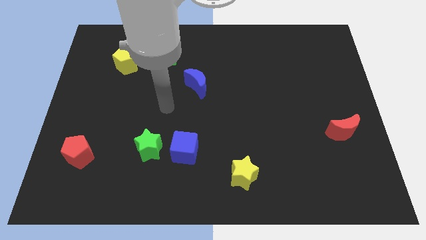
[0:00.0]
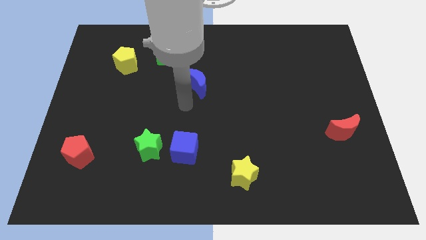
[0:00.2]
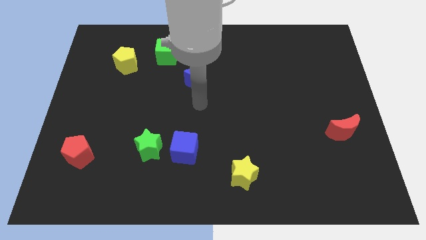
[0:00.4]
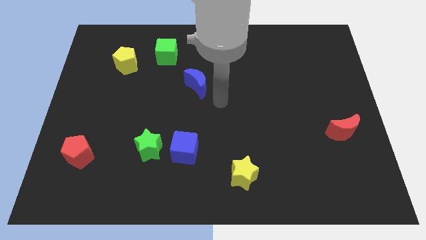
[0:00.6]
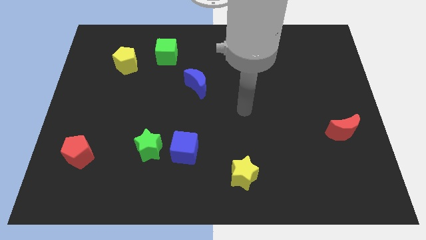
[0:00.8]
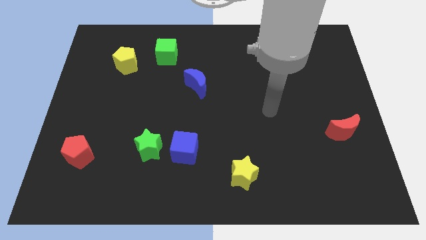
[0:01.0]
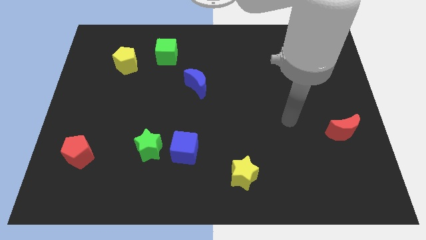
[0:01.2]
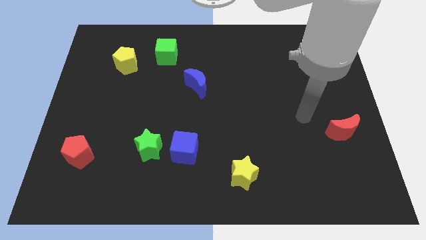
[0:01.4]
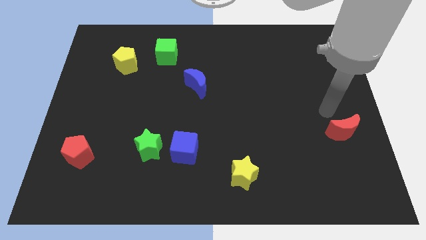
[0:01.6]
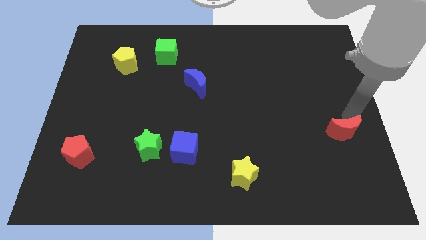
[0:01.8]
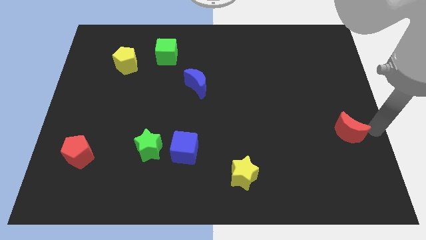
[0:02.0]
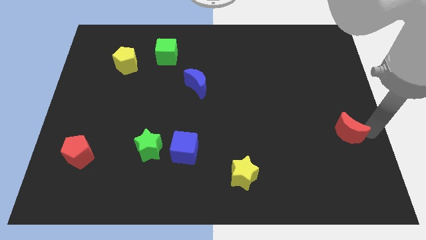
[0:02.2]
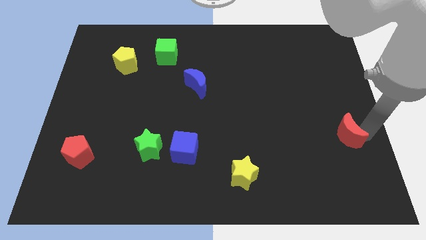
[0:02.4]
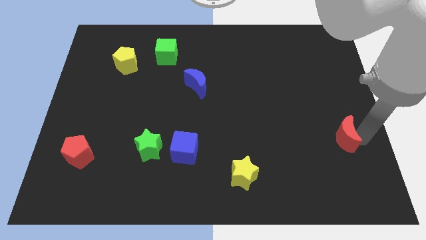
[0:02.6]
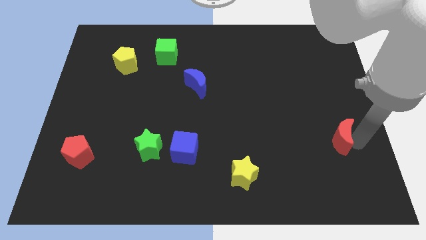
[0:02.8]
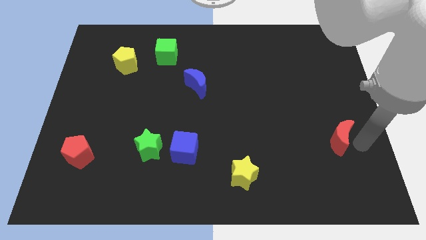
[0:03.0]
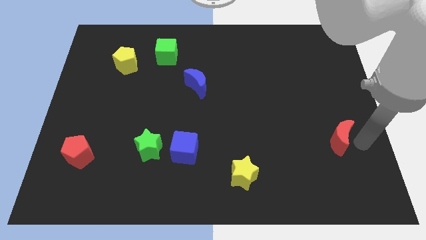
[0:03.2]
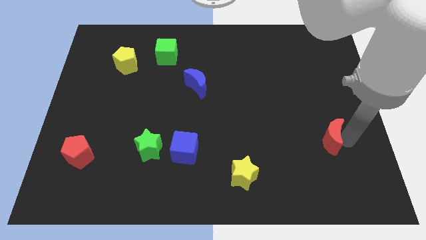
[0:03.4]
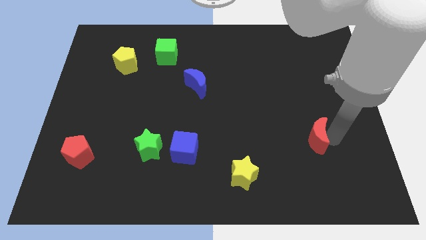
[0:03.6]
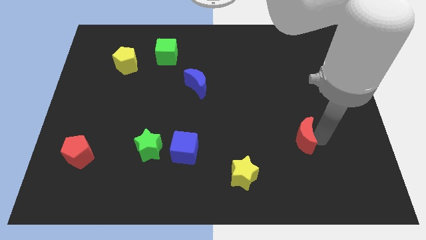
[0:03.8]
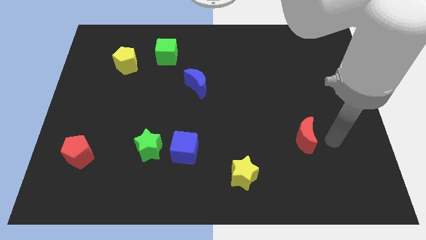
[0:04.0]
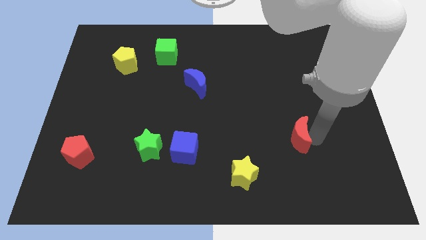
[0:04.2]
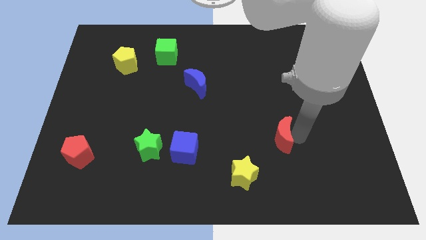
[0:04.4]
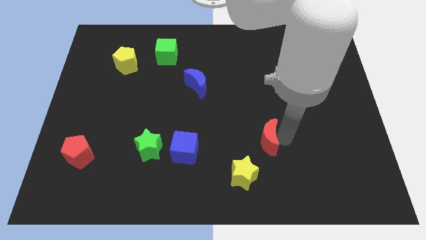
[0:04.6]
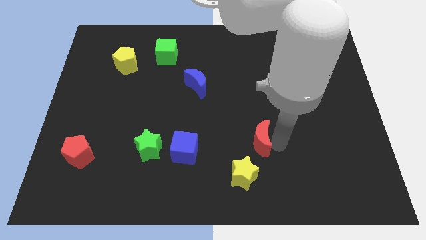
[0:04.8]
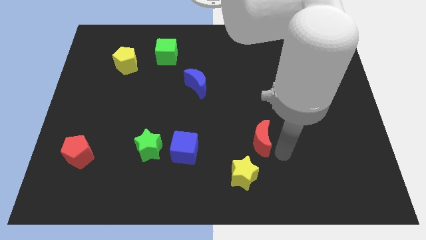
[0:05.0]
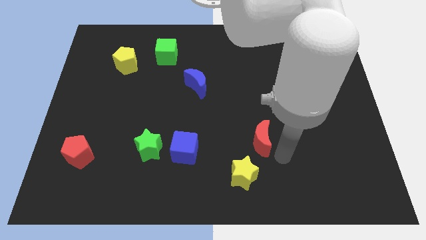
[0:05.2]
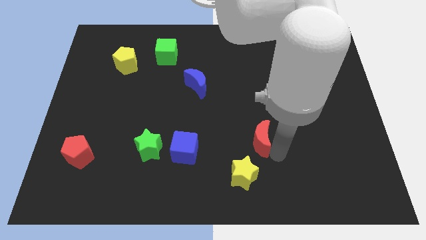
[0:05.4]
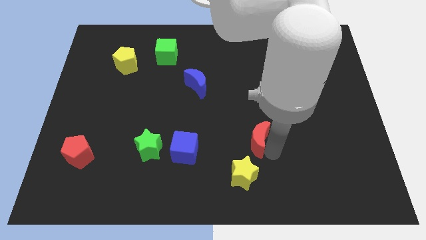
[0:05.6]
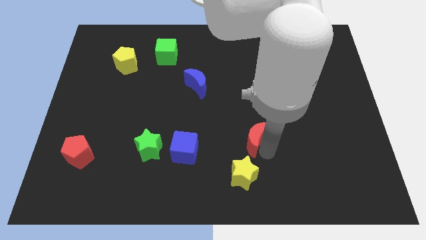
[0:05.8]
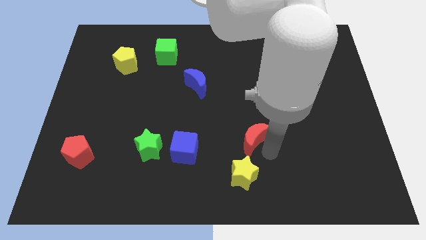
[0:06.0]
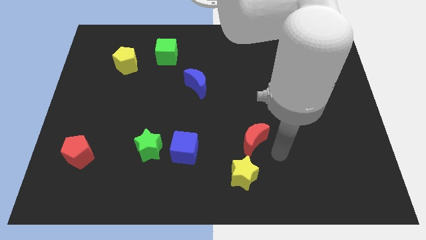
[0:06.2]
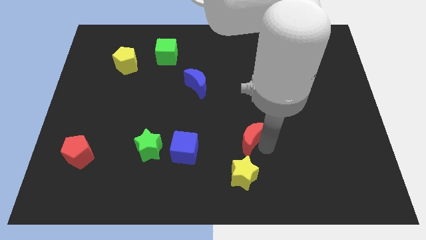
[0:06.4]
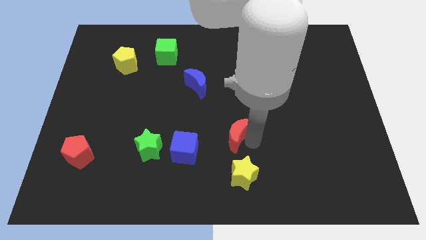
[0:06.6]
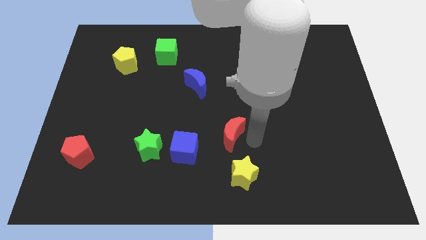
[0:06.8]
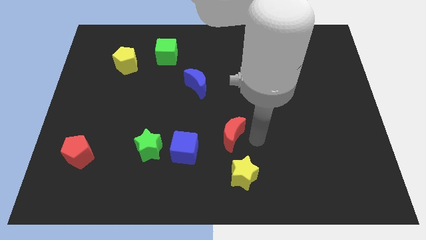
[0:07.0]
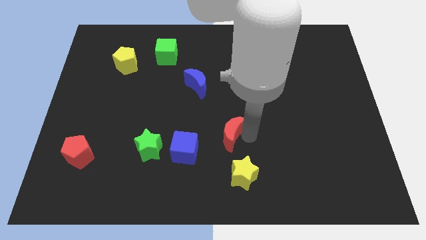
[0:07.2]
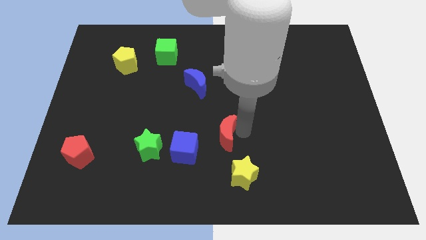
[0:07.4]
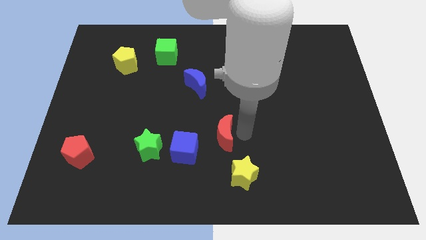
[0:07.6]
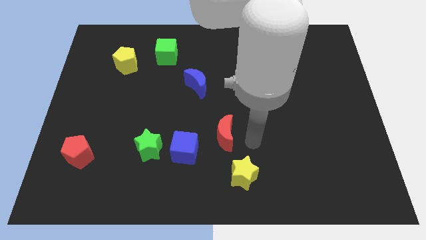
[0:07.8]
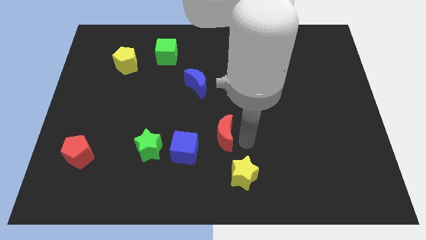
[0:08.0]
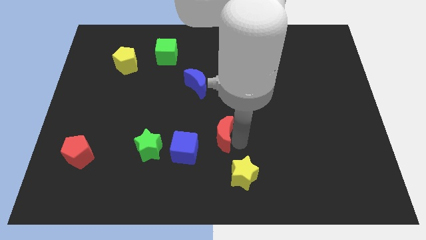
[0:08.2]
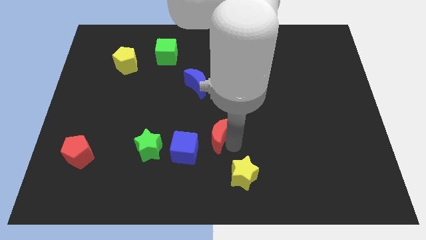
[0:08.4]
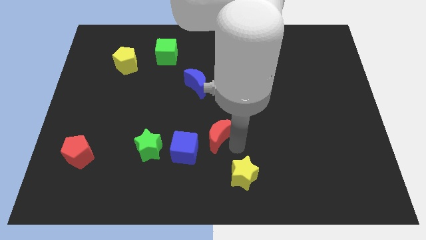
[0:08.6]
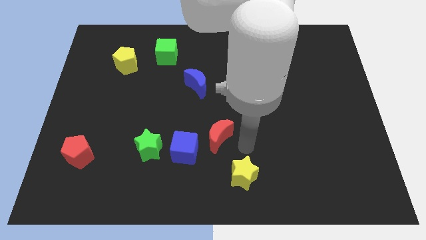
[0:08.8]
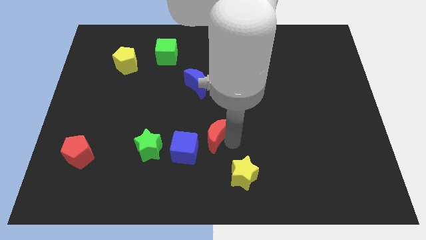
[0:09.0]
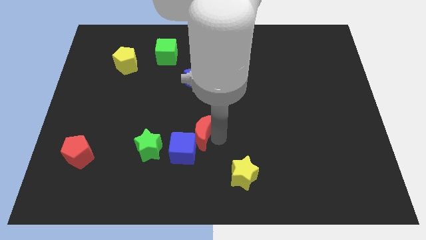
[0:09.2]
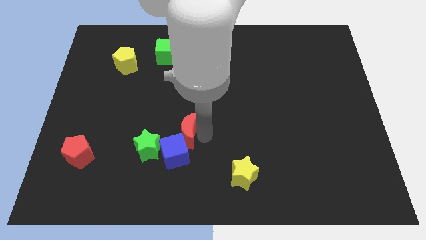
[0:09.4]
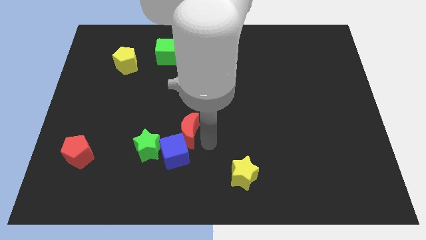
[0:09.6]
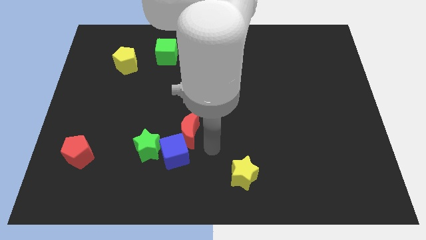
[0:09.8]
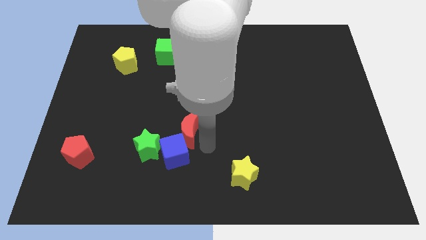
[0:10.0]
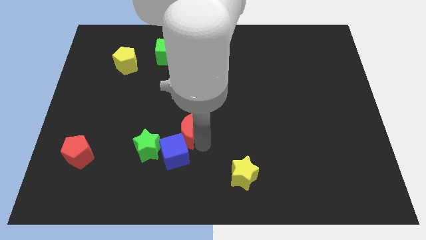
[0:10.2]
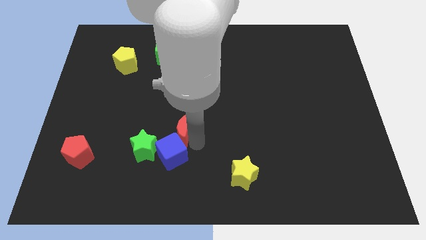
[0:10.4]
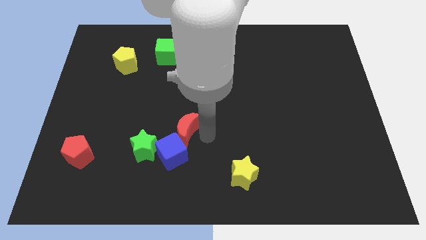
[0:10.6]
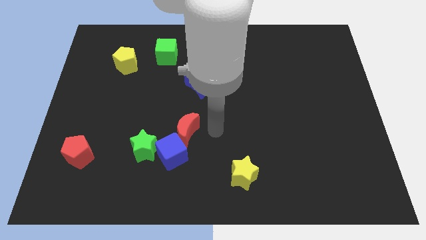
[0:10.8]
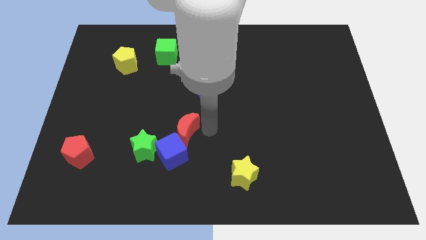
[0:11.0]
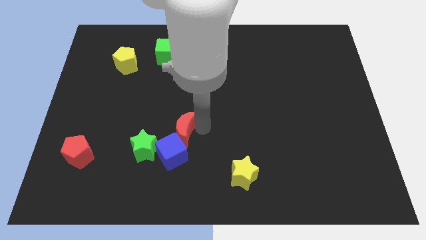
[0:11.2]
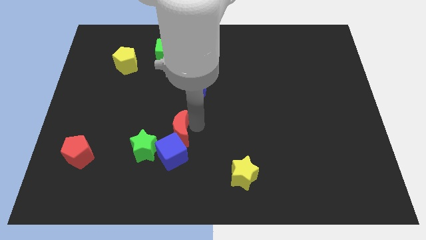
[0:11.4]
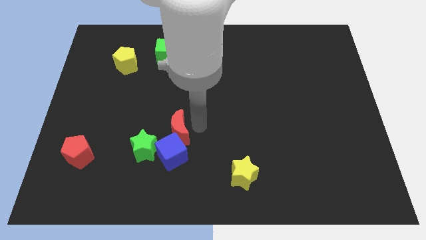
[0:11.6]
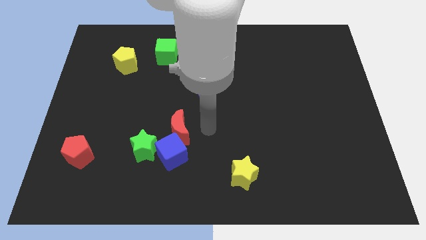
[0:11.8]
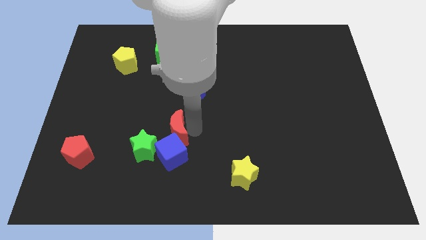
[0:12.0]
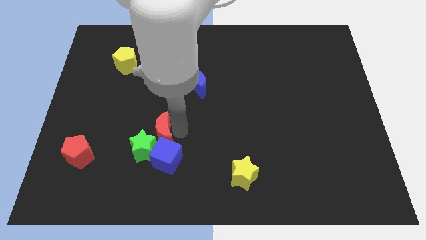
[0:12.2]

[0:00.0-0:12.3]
move the red moon to the green star

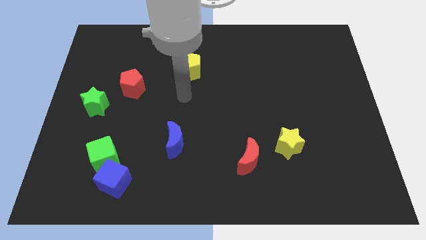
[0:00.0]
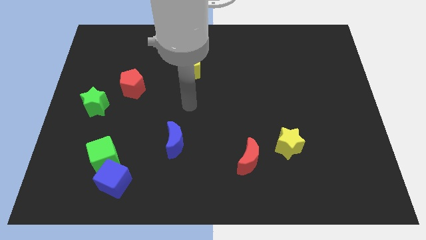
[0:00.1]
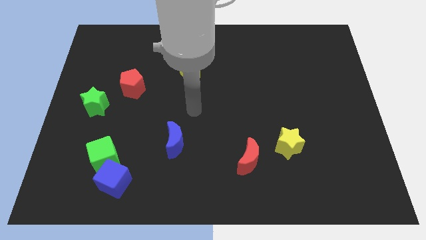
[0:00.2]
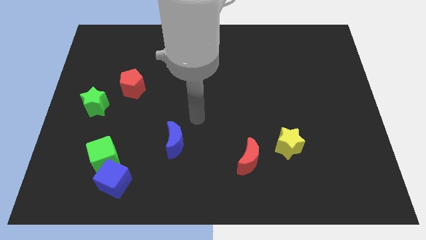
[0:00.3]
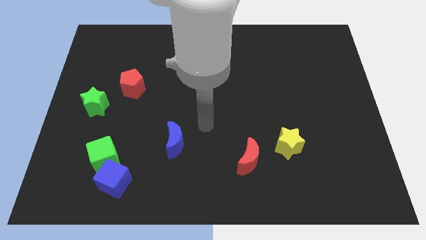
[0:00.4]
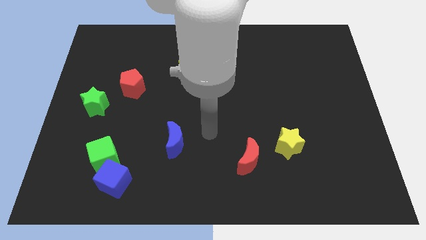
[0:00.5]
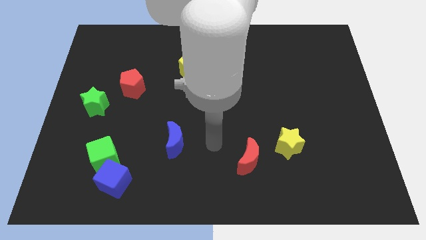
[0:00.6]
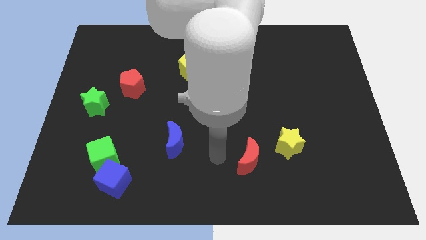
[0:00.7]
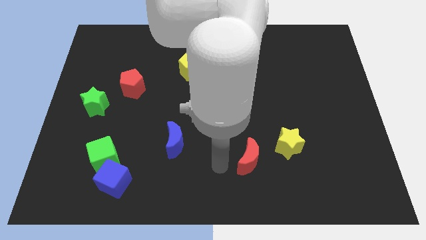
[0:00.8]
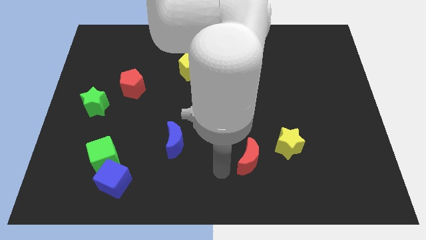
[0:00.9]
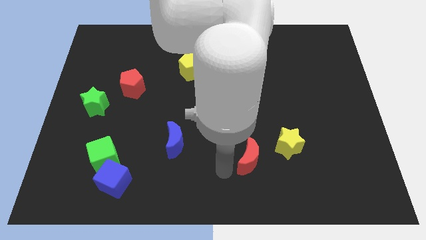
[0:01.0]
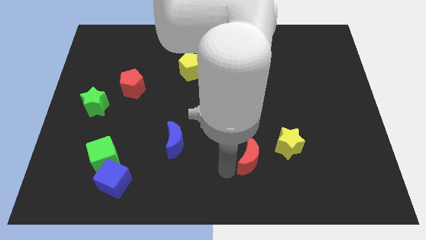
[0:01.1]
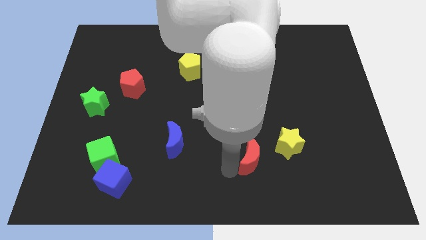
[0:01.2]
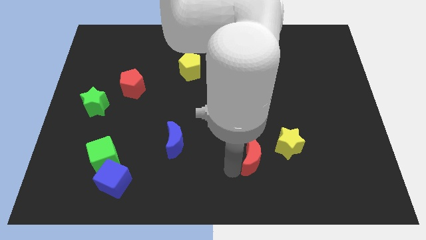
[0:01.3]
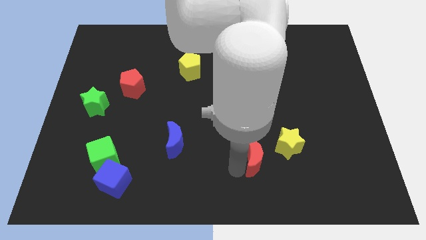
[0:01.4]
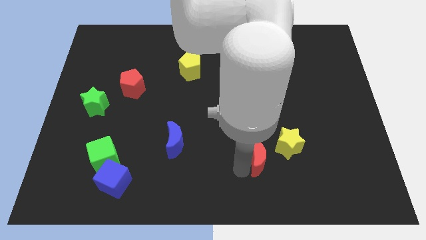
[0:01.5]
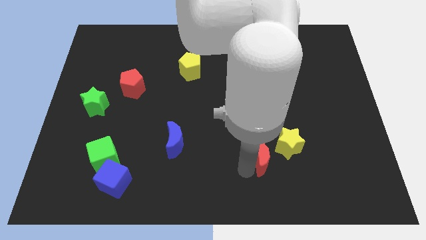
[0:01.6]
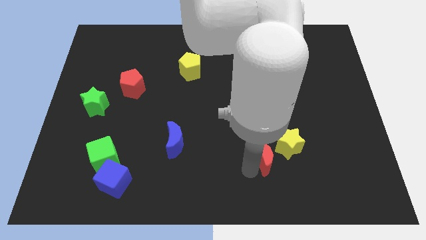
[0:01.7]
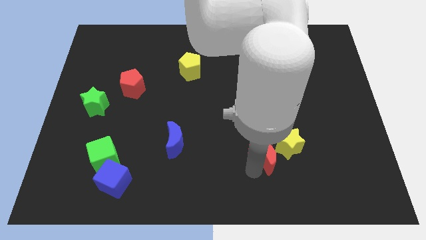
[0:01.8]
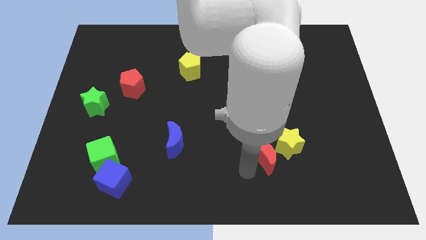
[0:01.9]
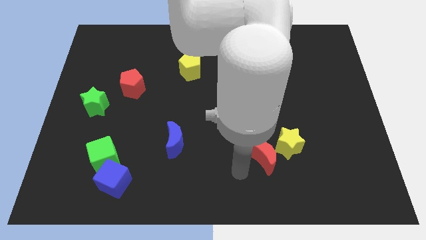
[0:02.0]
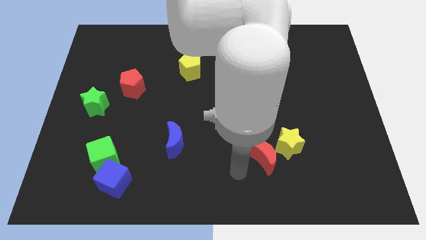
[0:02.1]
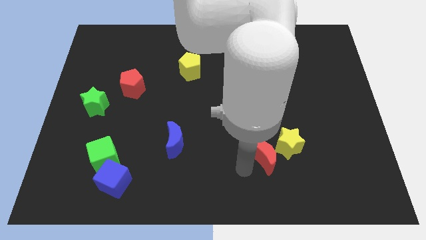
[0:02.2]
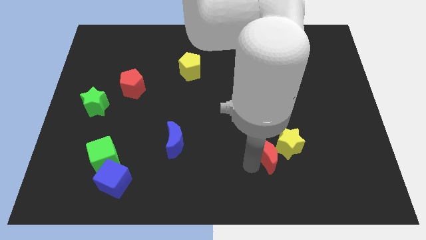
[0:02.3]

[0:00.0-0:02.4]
put the red moon to the yellow star

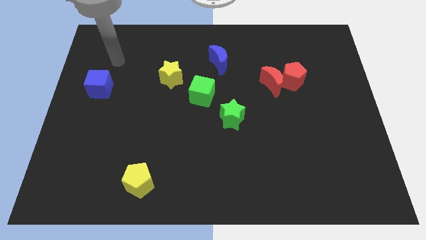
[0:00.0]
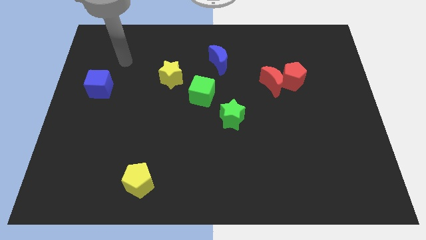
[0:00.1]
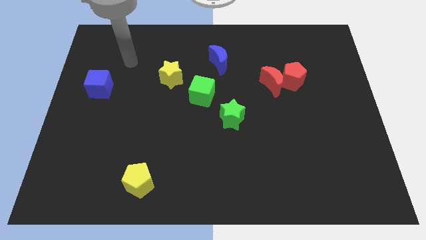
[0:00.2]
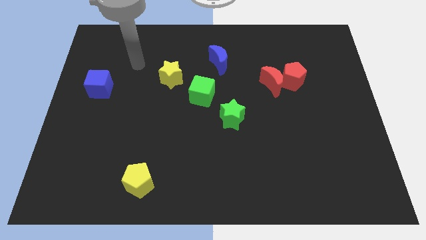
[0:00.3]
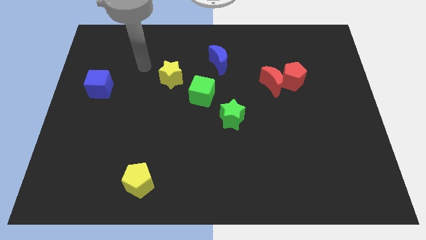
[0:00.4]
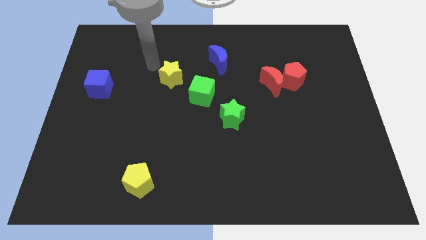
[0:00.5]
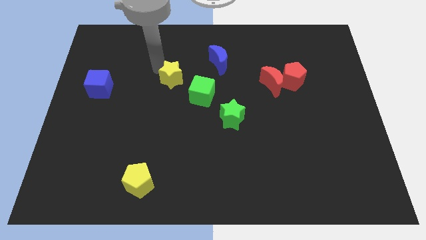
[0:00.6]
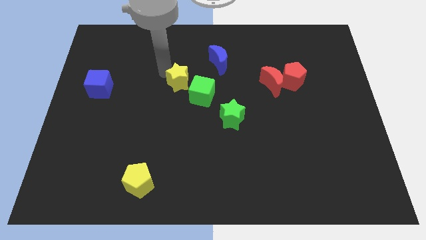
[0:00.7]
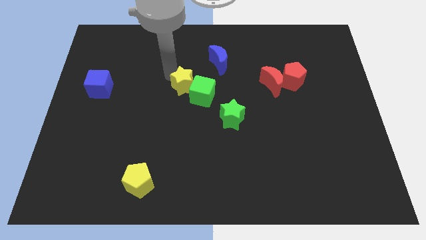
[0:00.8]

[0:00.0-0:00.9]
slide the yellow star next to the green cube
